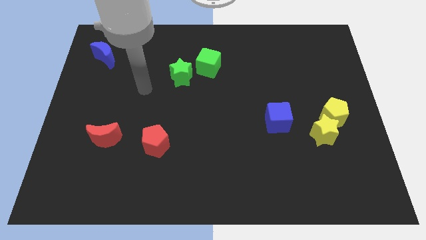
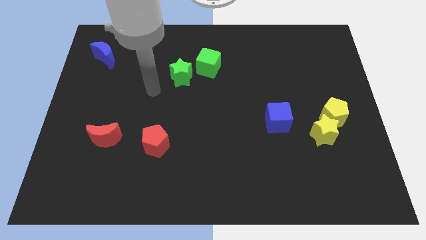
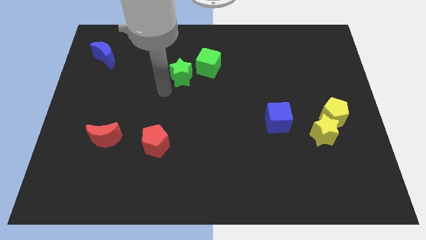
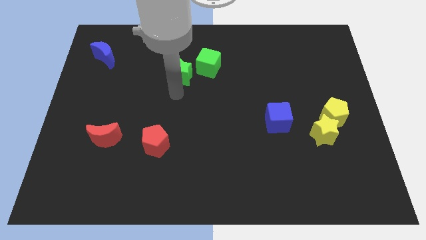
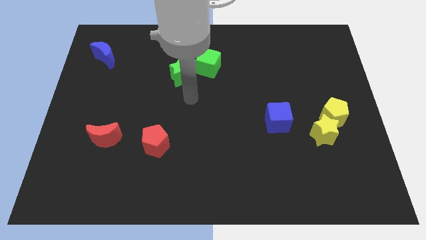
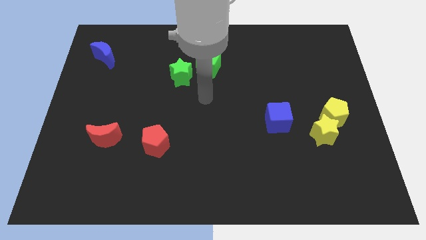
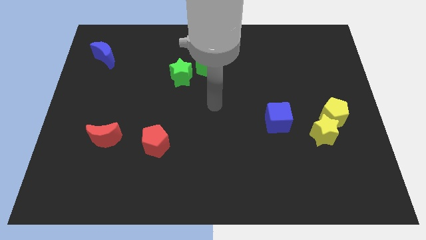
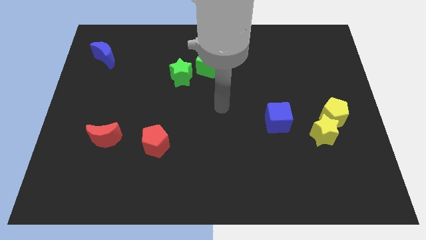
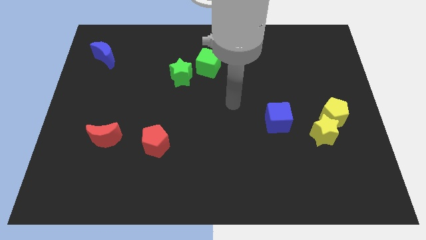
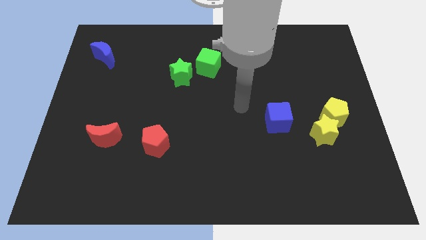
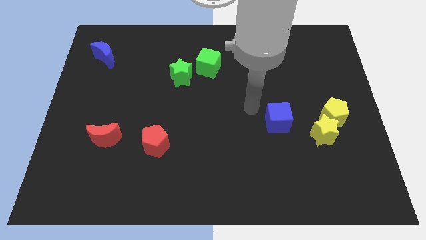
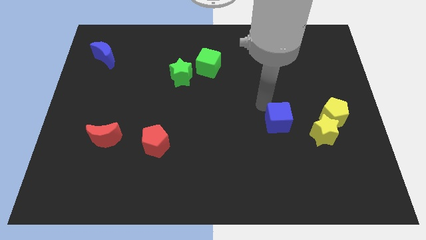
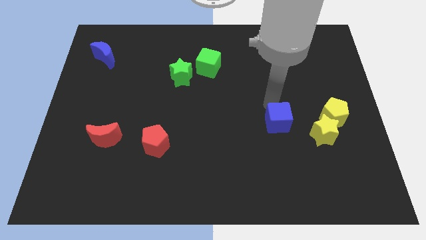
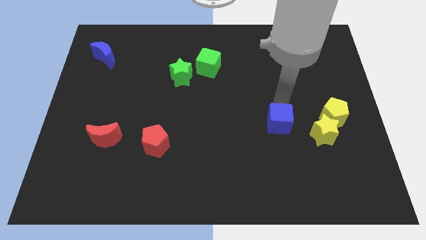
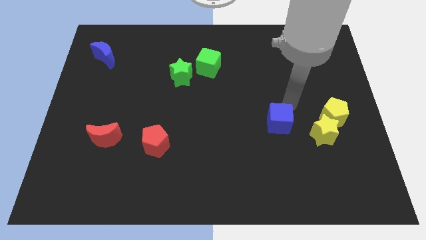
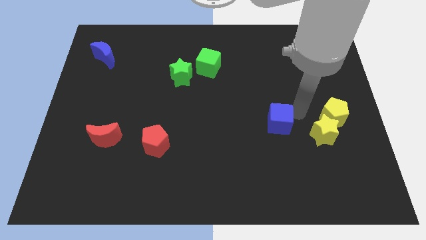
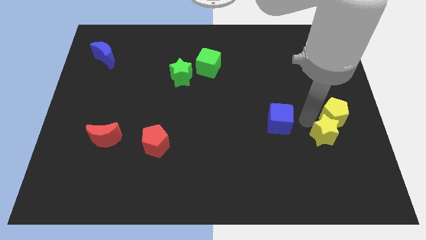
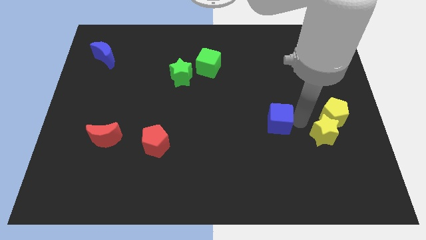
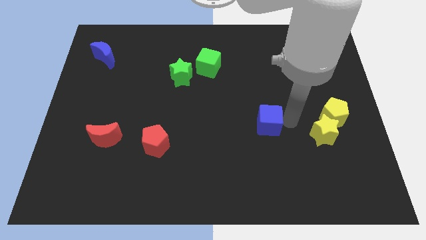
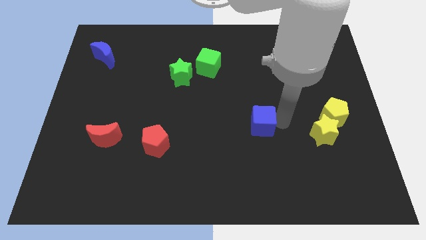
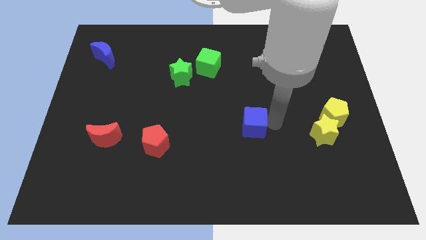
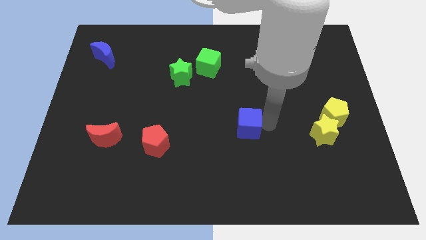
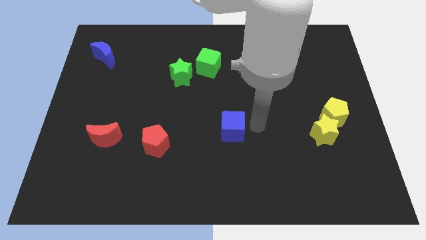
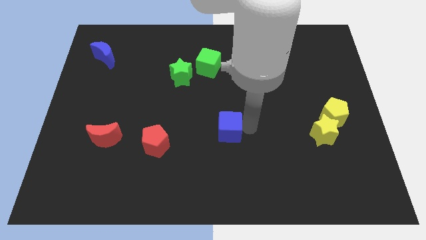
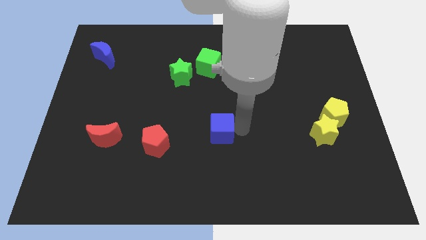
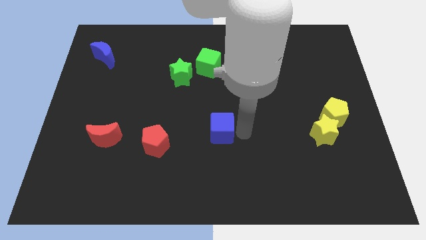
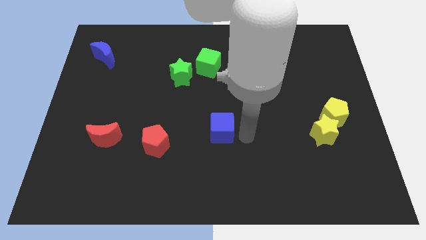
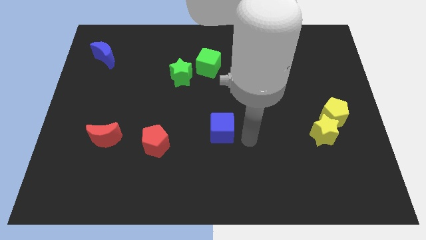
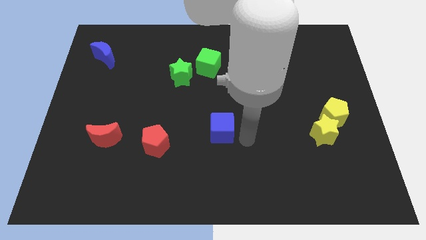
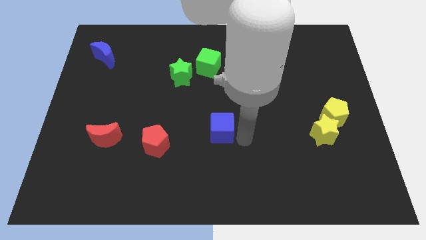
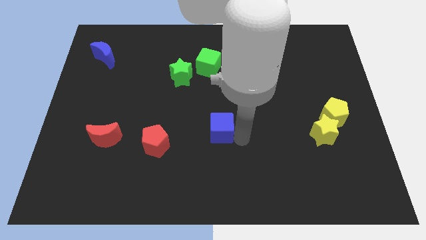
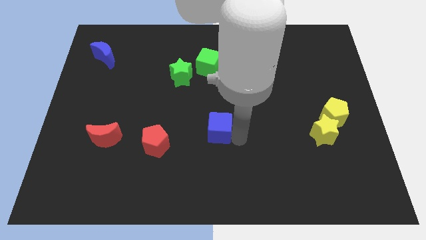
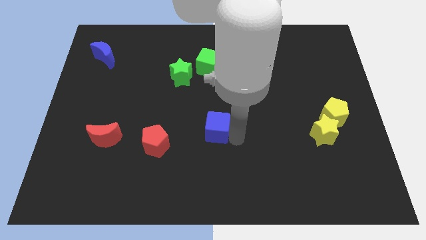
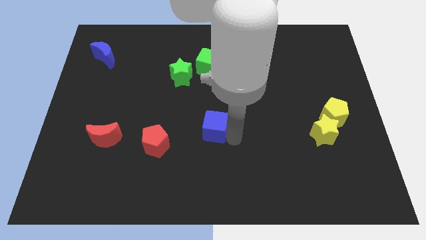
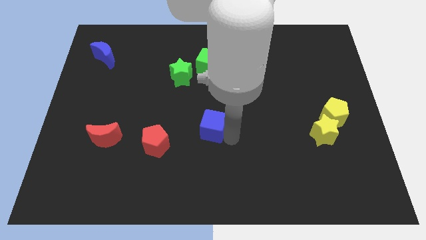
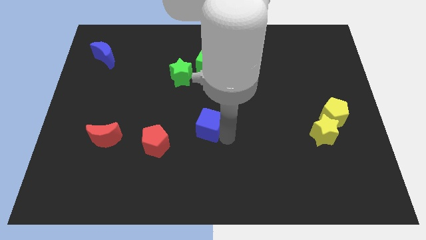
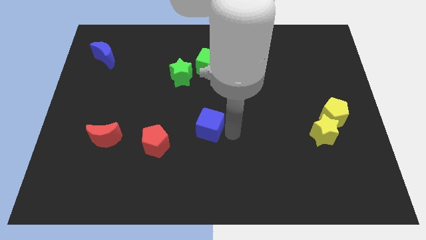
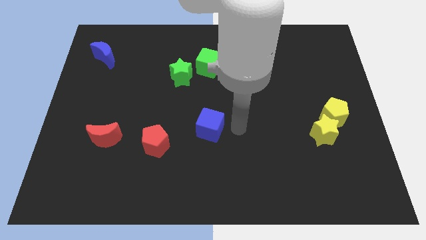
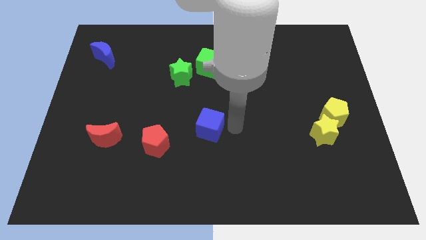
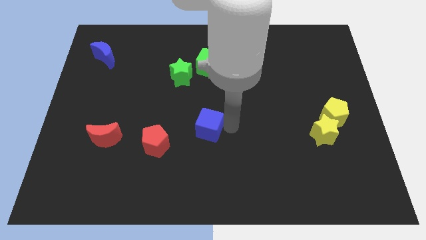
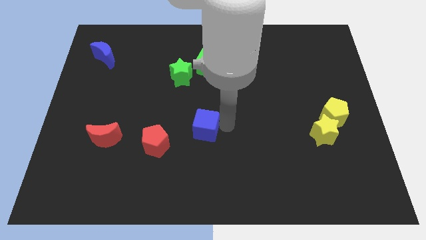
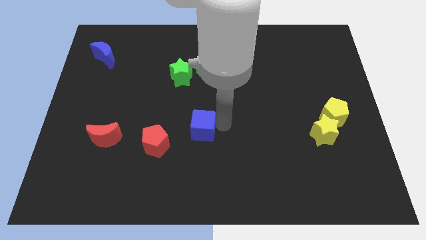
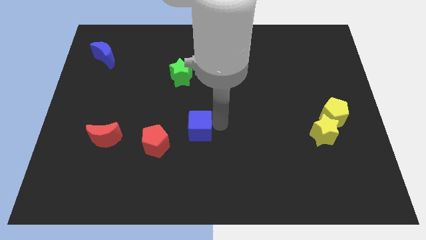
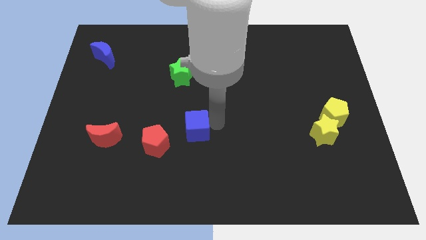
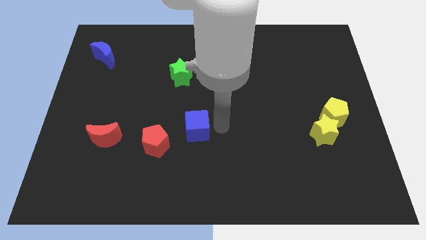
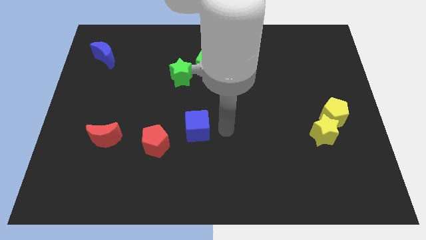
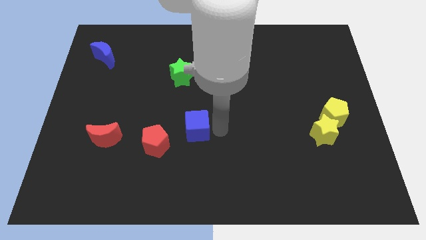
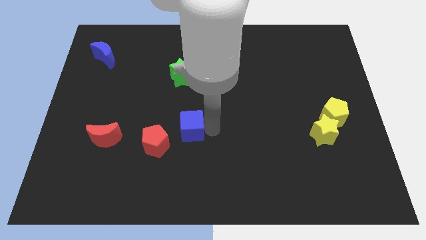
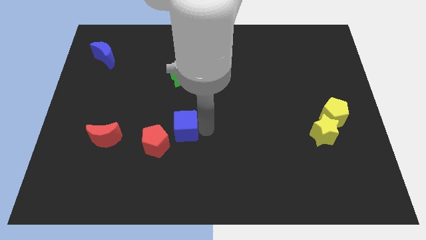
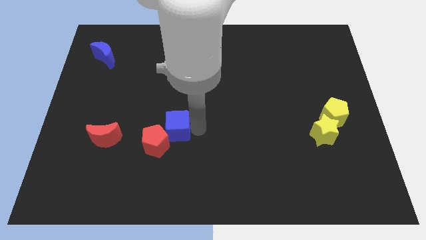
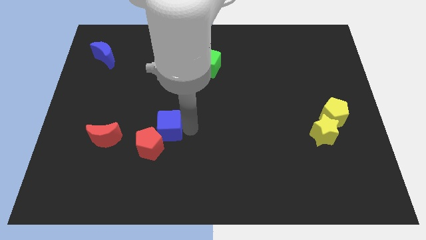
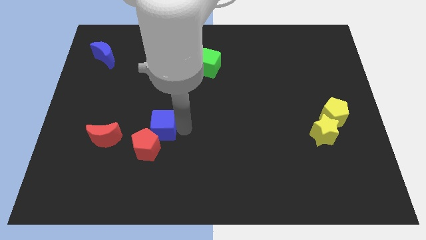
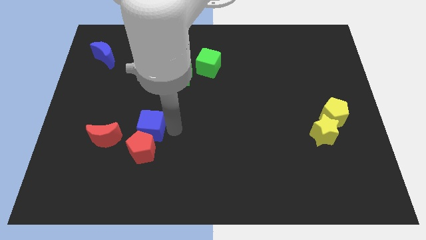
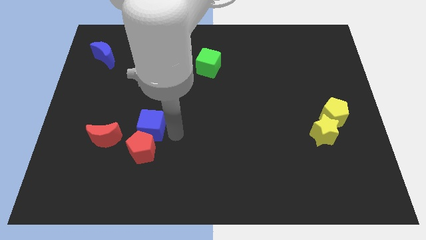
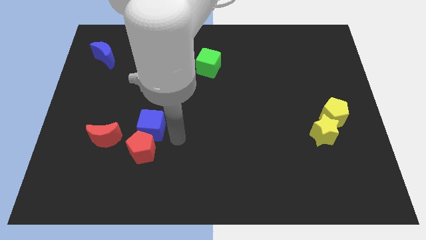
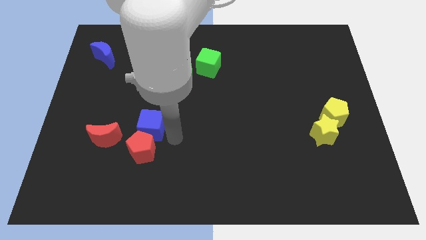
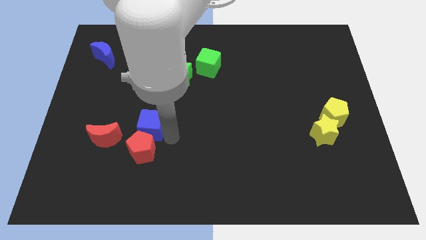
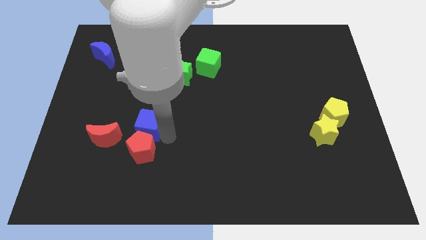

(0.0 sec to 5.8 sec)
put the blue cube to the top right side of the red moon

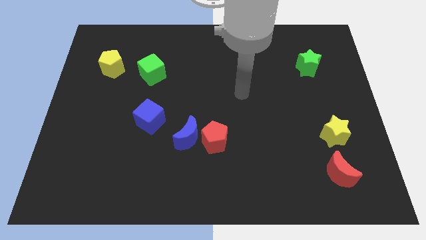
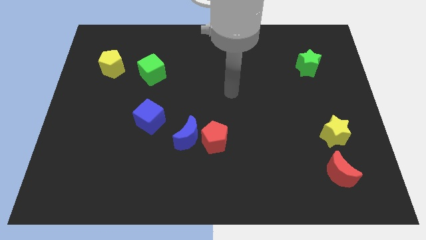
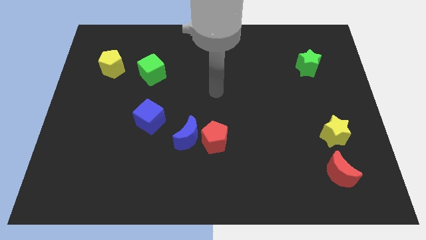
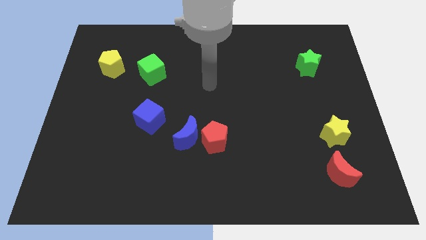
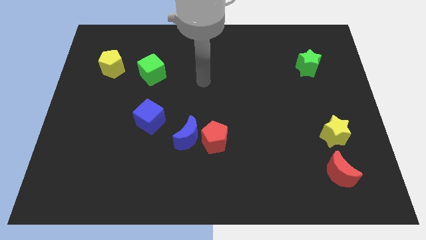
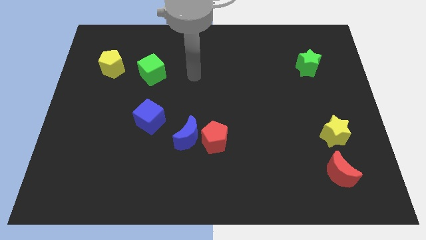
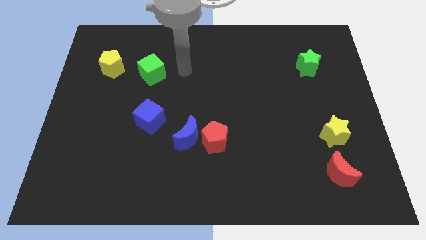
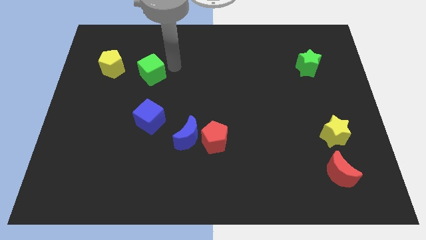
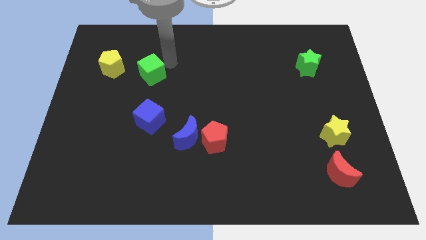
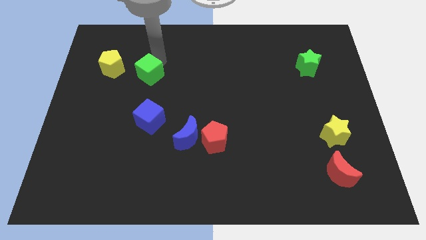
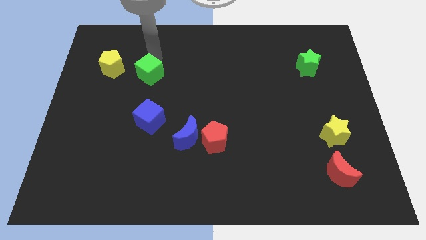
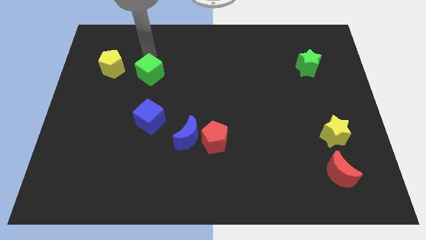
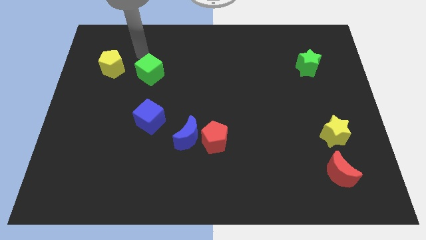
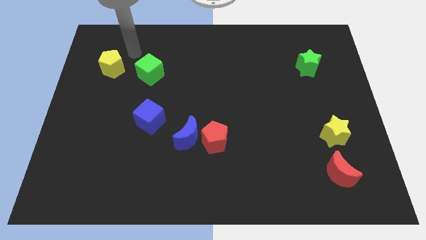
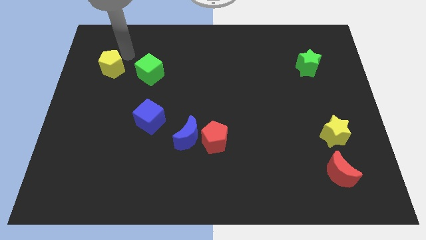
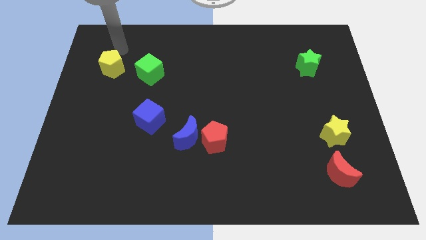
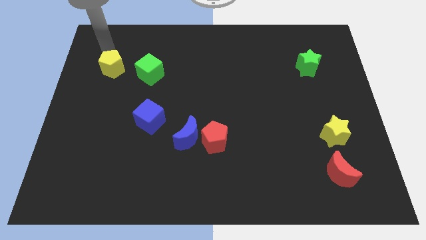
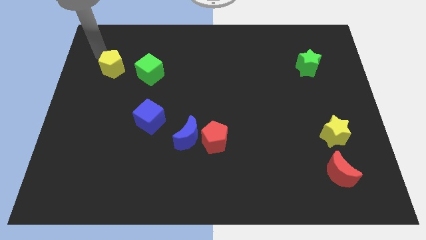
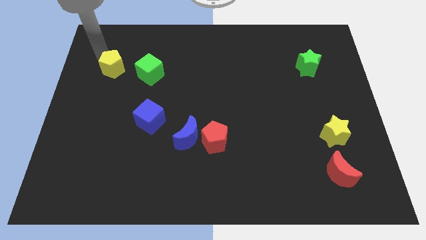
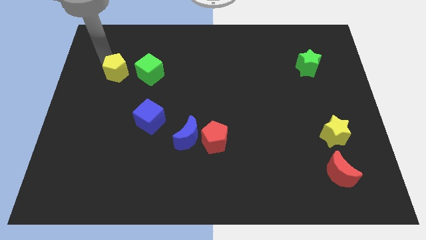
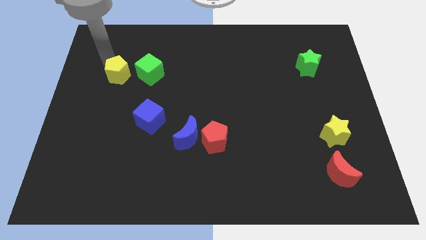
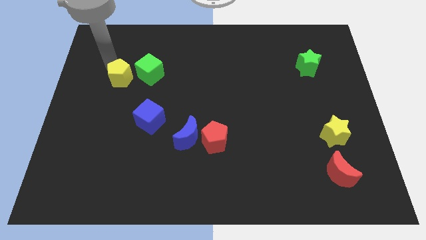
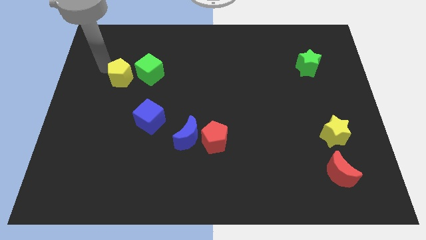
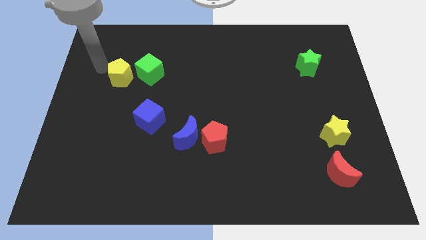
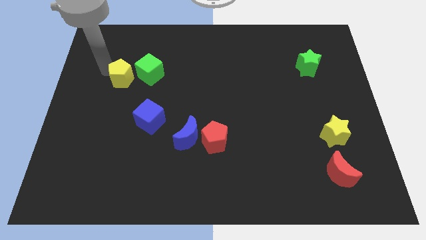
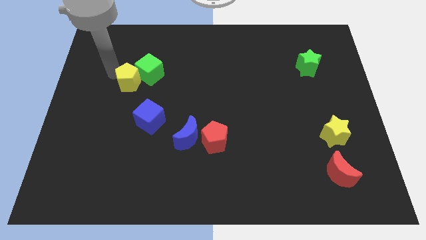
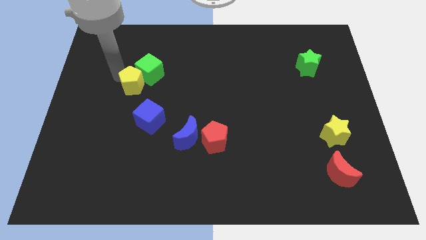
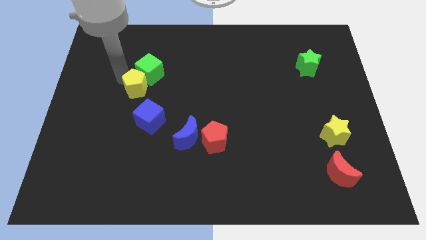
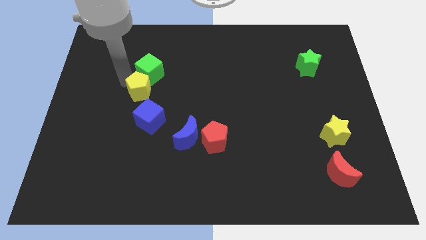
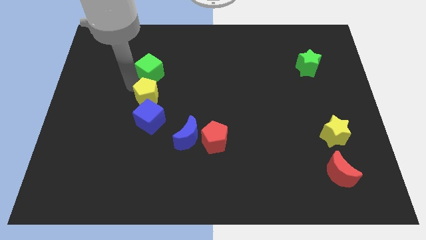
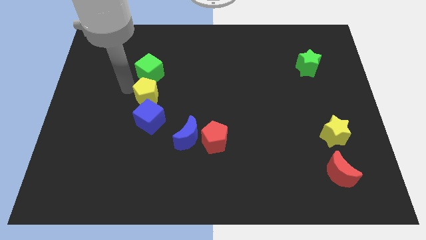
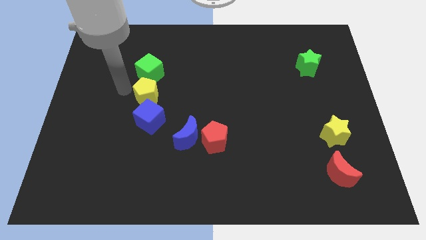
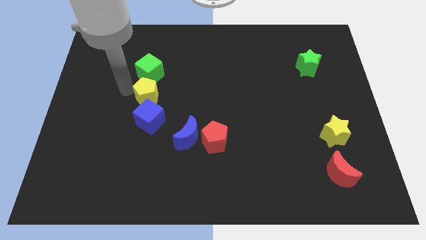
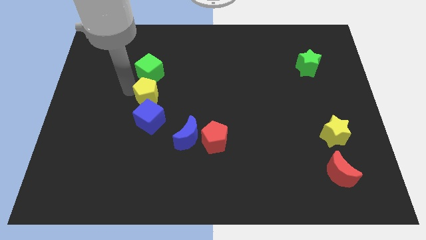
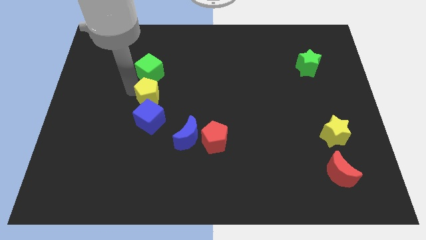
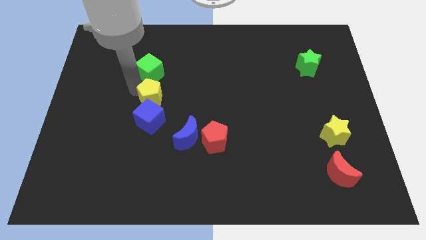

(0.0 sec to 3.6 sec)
move the yellow pentagon to the top right side of the blue cube

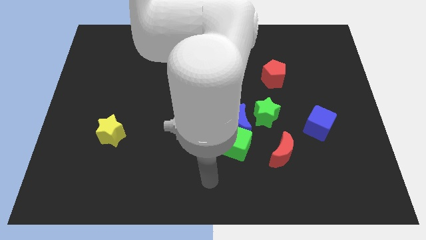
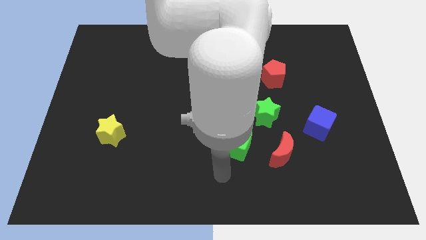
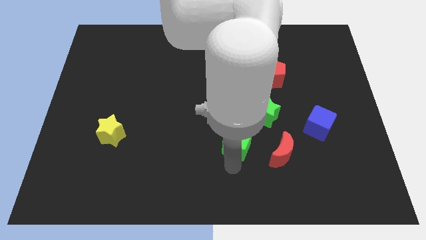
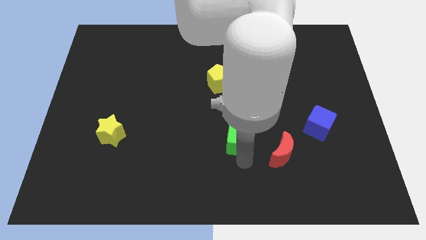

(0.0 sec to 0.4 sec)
push the red moon to the bottom right of the green cube
